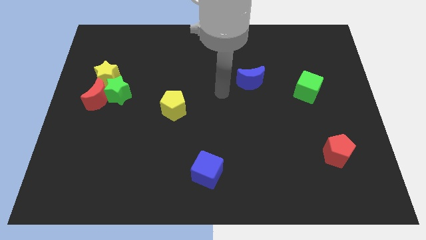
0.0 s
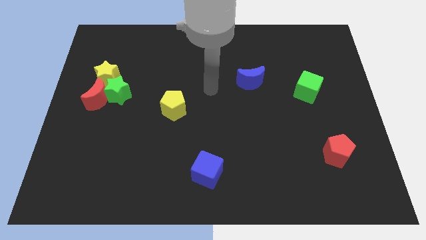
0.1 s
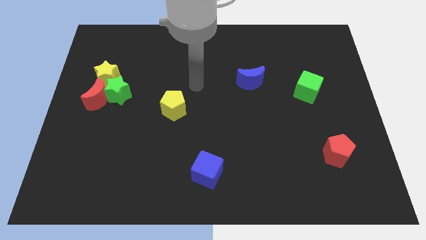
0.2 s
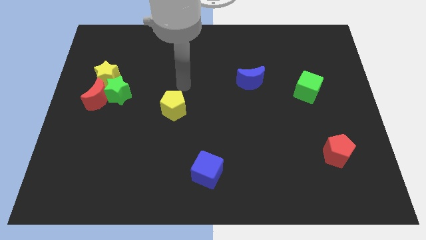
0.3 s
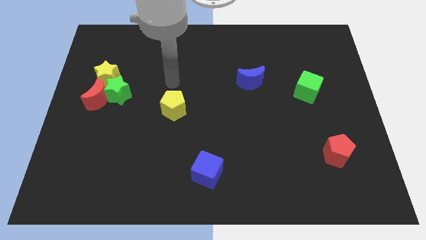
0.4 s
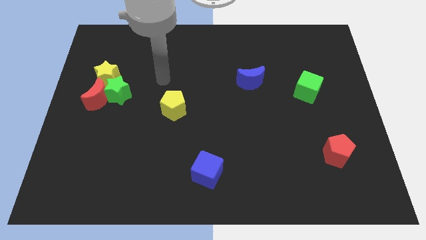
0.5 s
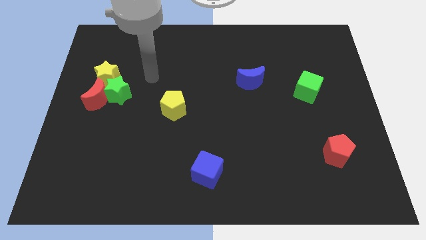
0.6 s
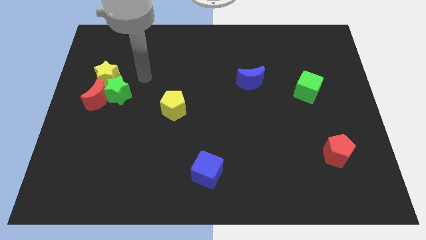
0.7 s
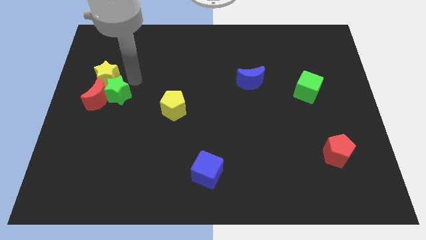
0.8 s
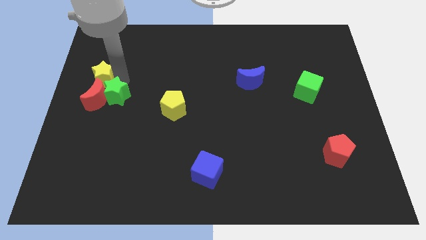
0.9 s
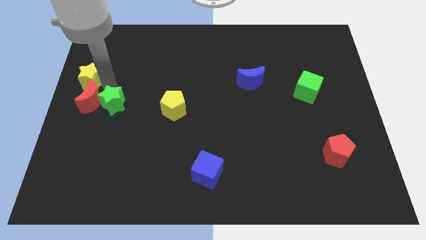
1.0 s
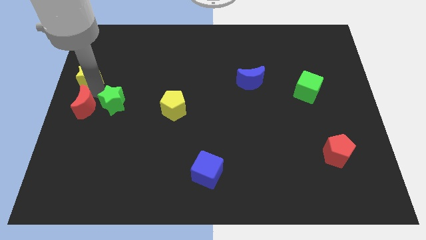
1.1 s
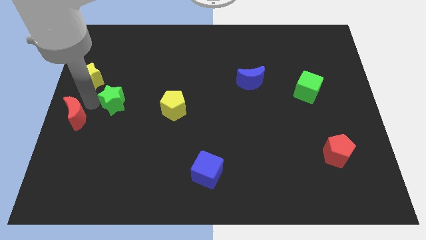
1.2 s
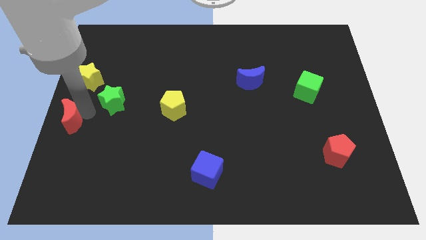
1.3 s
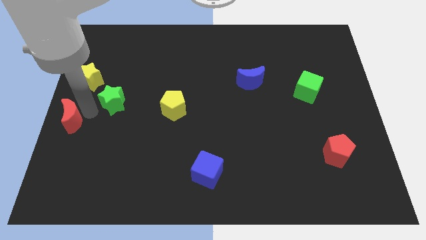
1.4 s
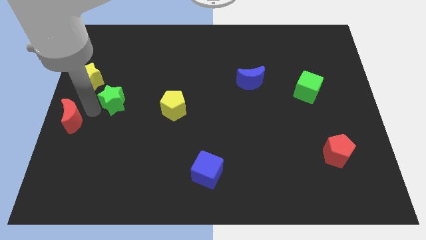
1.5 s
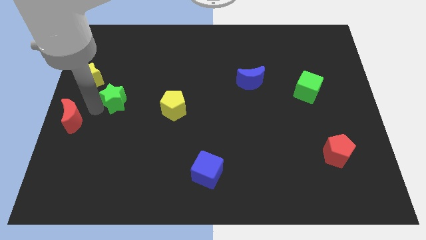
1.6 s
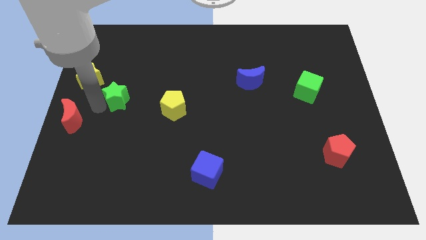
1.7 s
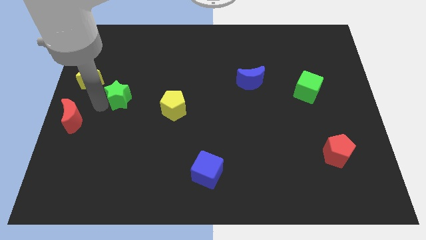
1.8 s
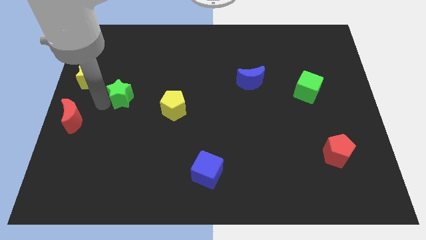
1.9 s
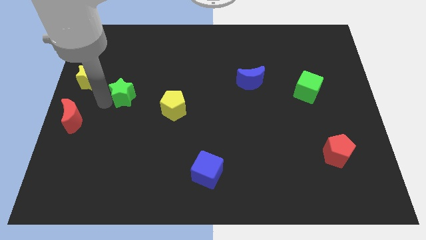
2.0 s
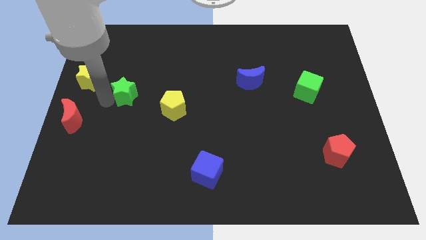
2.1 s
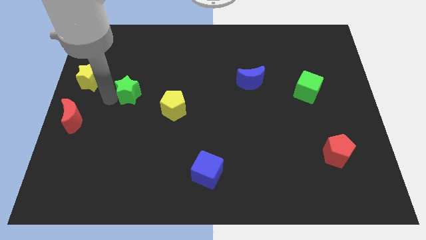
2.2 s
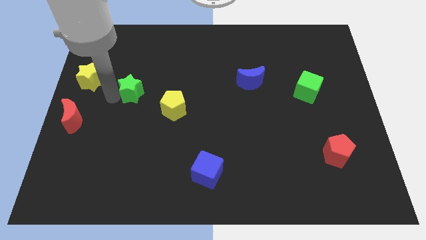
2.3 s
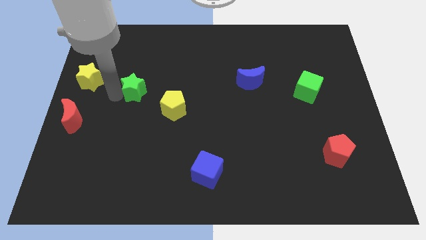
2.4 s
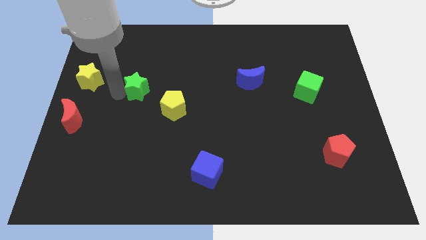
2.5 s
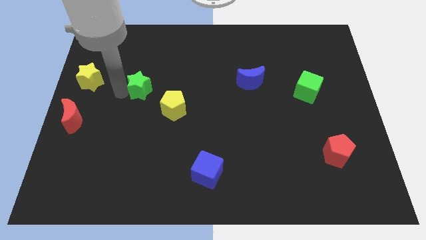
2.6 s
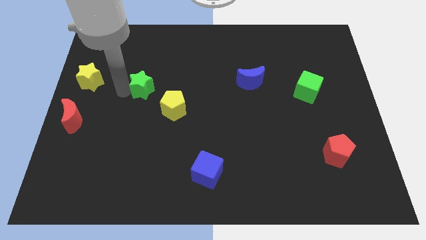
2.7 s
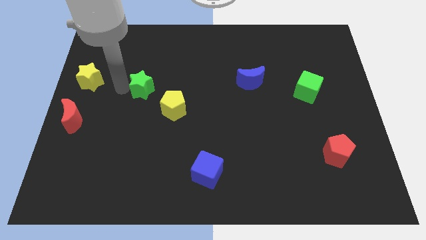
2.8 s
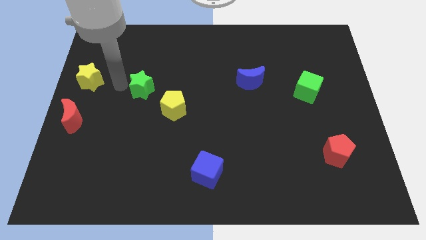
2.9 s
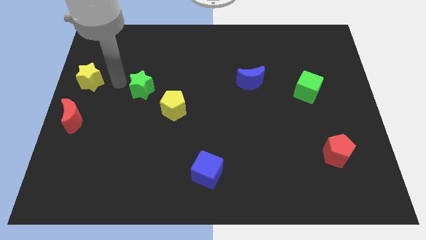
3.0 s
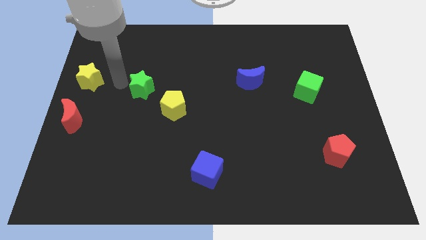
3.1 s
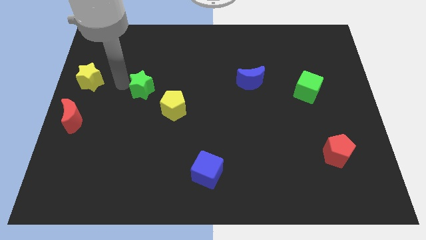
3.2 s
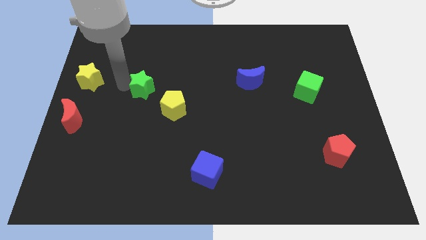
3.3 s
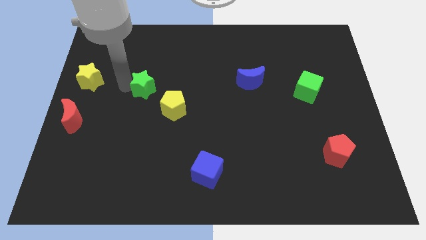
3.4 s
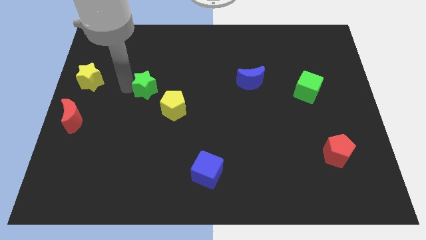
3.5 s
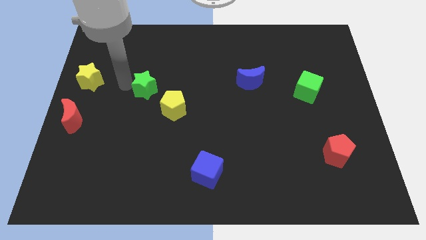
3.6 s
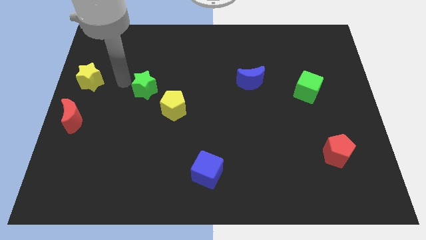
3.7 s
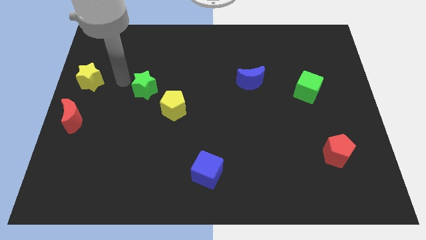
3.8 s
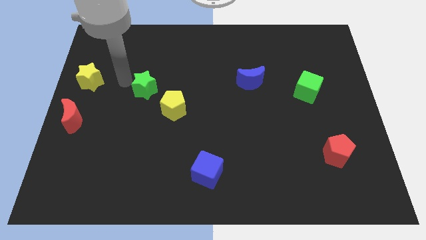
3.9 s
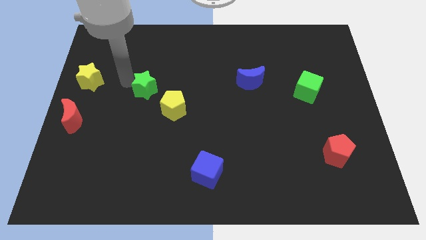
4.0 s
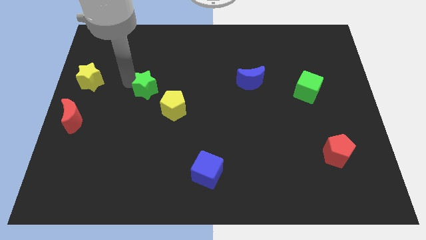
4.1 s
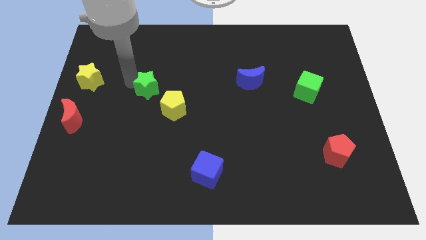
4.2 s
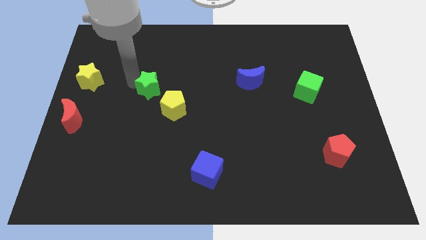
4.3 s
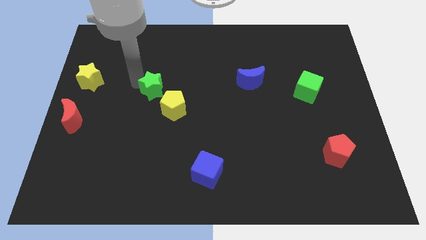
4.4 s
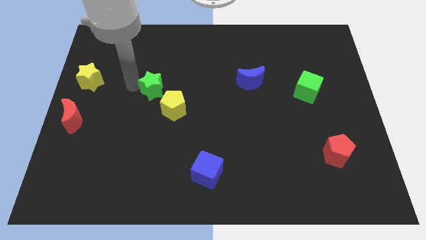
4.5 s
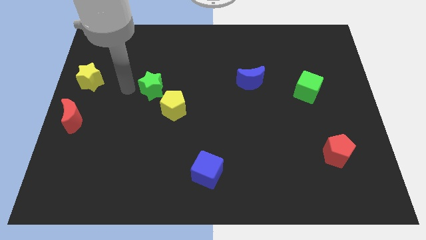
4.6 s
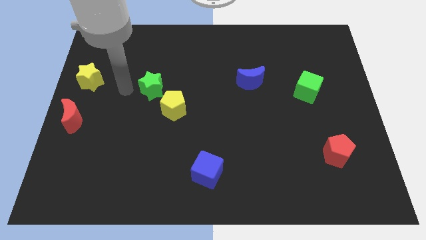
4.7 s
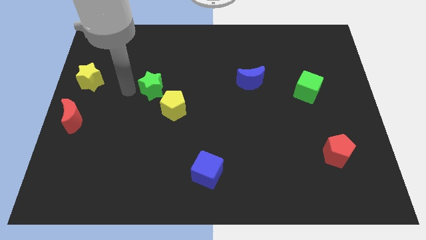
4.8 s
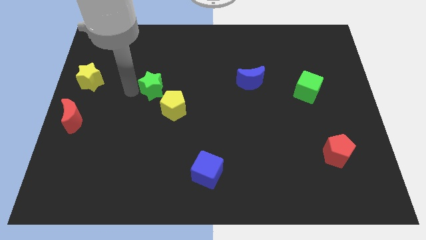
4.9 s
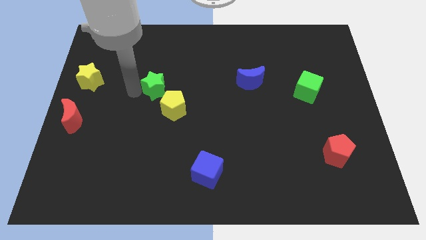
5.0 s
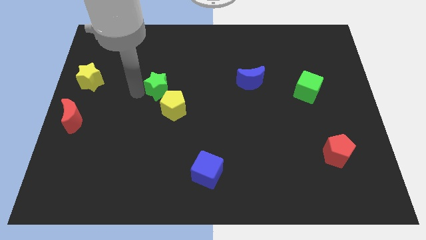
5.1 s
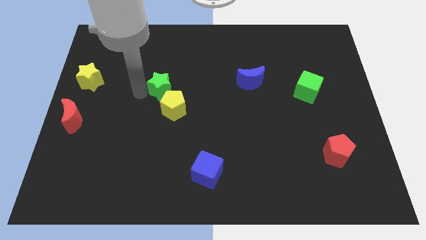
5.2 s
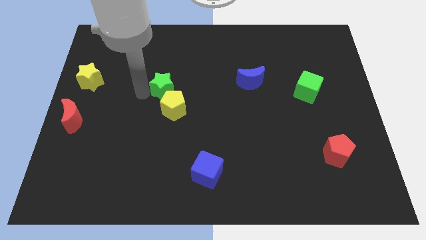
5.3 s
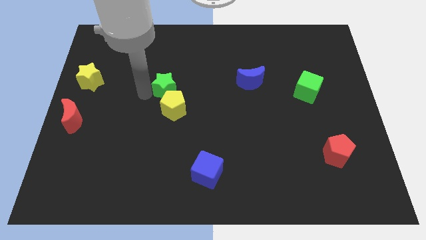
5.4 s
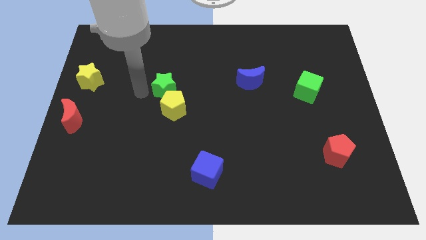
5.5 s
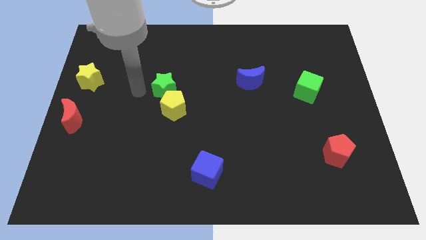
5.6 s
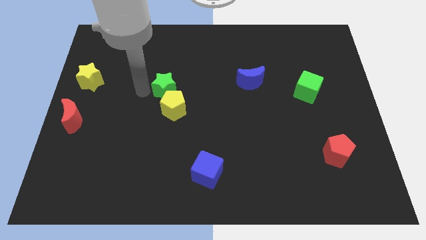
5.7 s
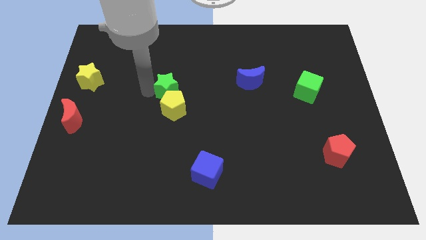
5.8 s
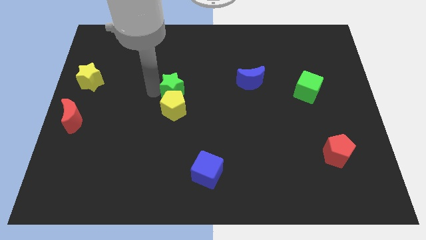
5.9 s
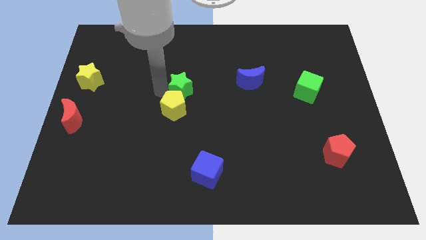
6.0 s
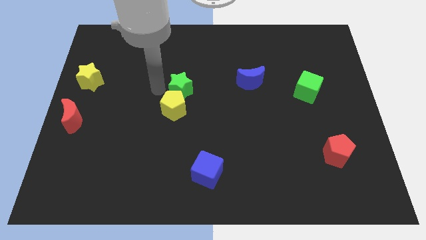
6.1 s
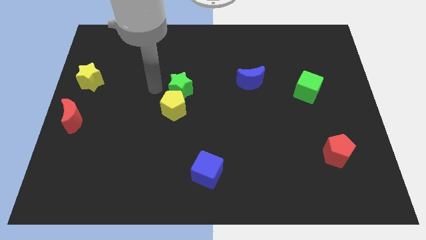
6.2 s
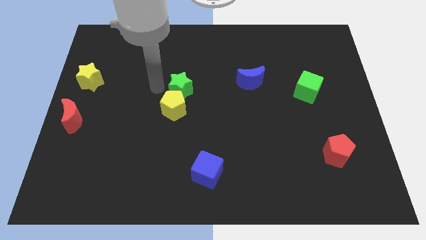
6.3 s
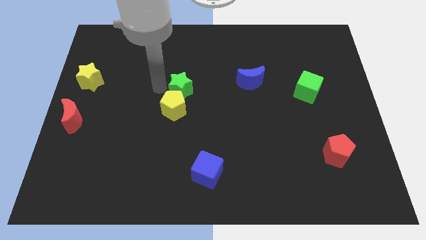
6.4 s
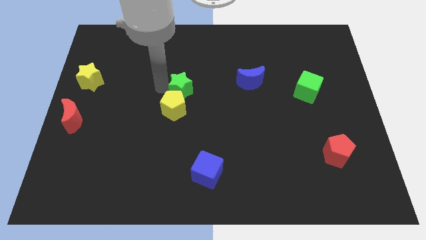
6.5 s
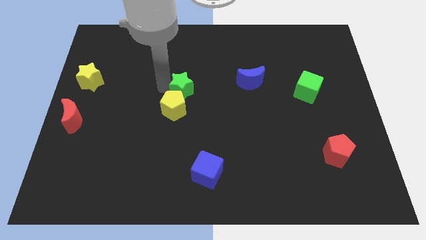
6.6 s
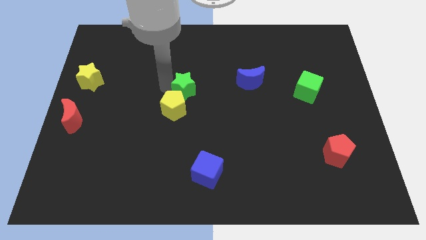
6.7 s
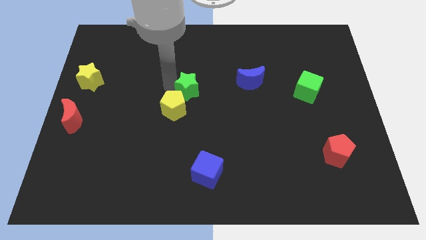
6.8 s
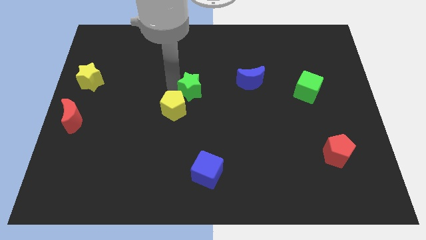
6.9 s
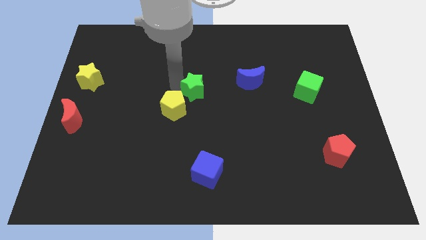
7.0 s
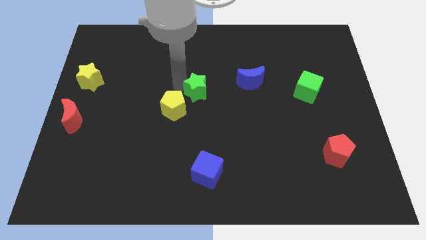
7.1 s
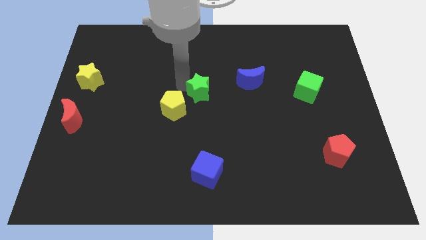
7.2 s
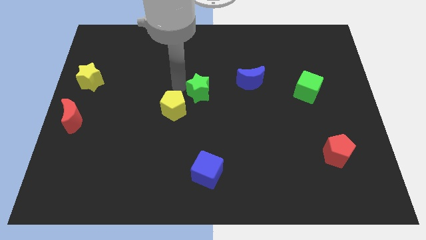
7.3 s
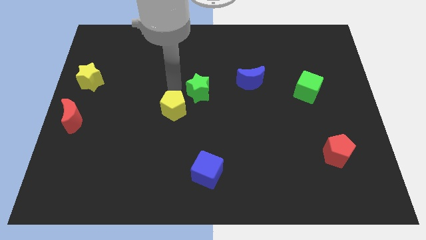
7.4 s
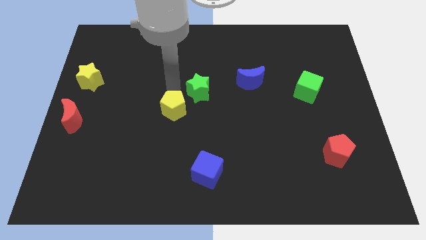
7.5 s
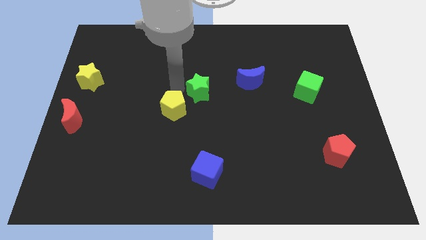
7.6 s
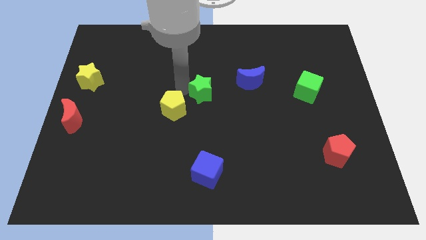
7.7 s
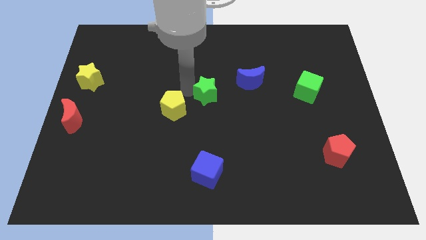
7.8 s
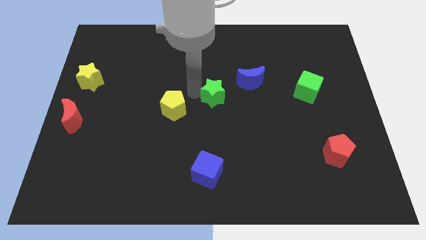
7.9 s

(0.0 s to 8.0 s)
slide the green star to the bottom left side of the blue moon

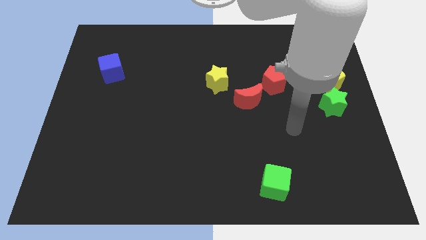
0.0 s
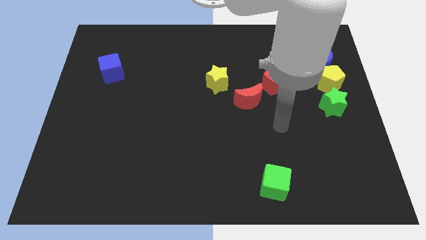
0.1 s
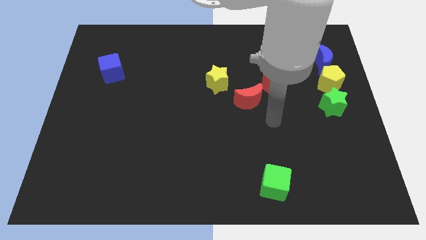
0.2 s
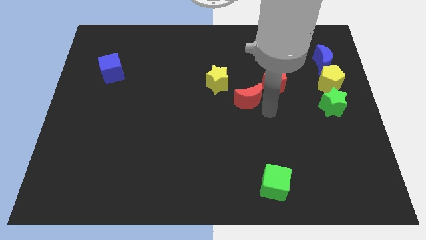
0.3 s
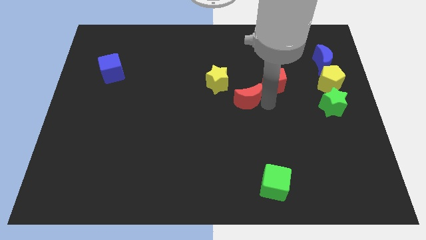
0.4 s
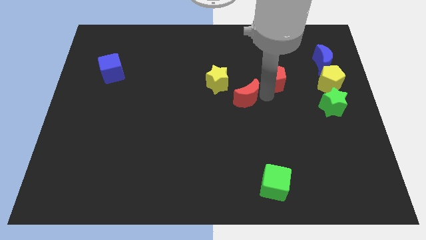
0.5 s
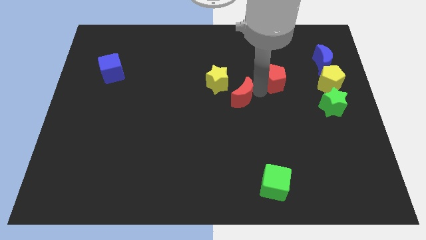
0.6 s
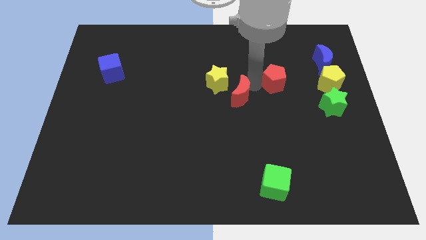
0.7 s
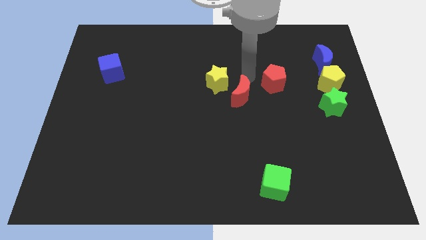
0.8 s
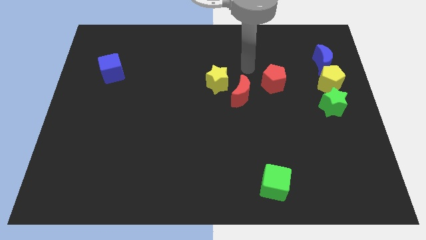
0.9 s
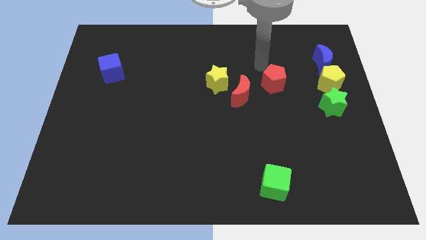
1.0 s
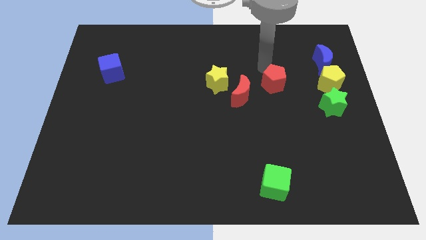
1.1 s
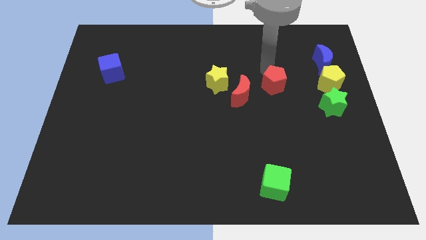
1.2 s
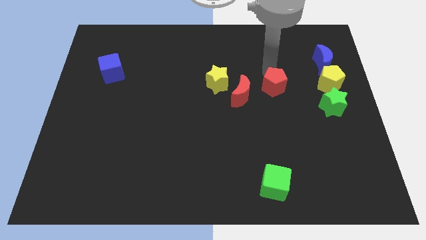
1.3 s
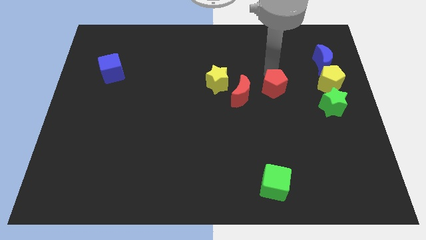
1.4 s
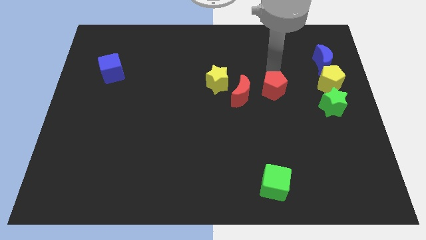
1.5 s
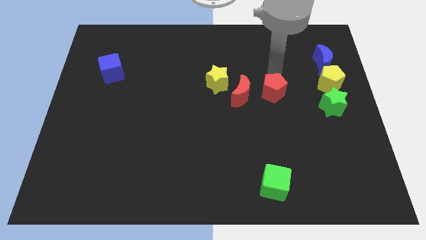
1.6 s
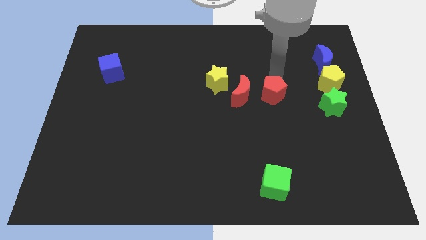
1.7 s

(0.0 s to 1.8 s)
push the red pentagon to the left of the green star
